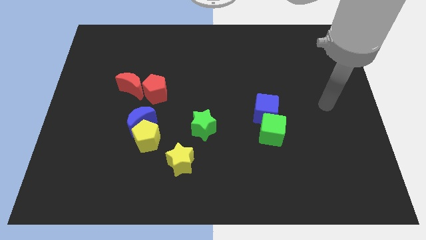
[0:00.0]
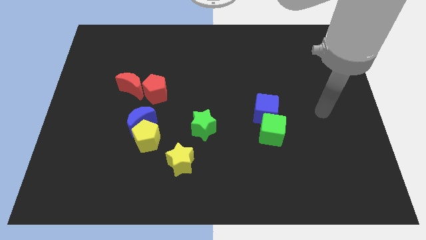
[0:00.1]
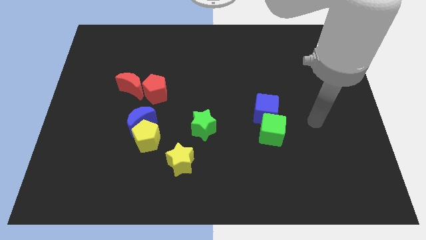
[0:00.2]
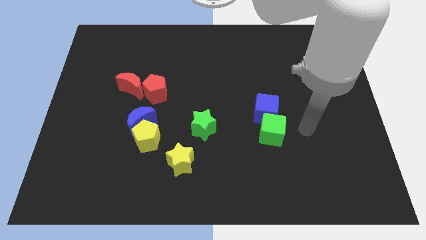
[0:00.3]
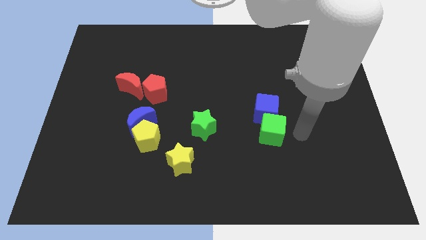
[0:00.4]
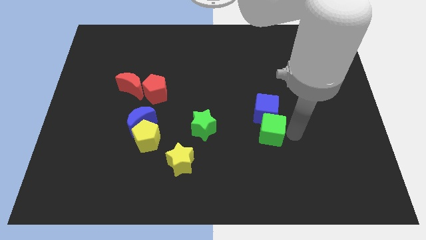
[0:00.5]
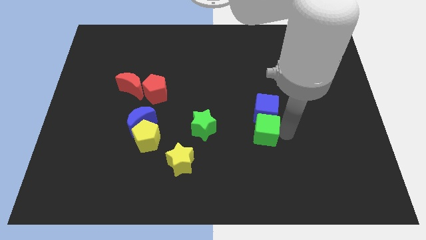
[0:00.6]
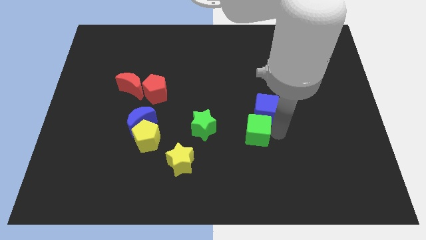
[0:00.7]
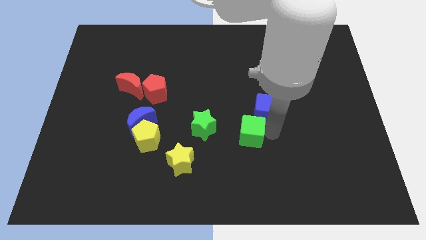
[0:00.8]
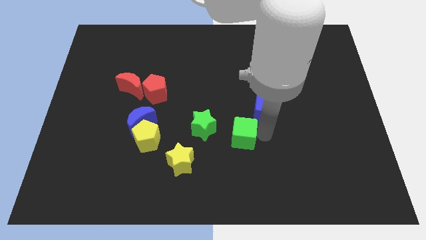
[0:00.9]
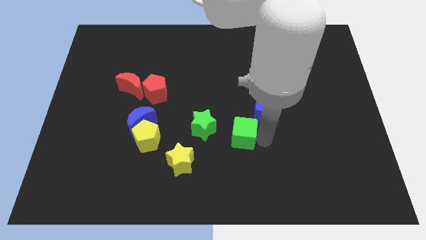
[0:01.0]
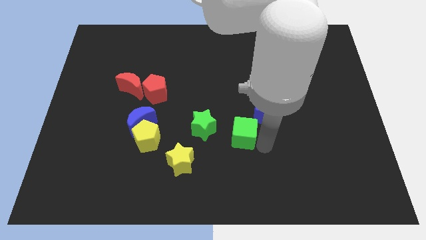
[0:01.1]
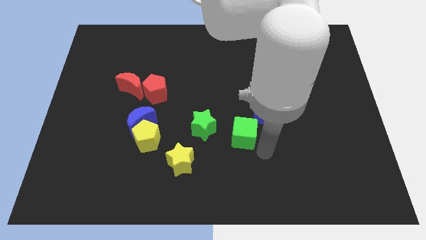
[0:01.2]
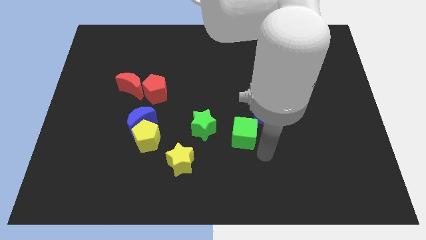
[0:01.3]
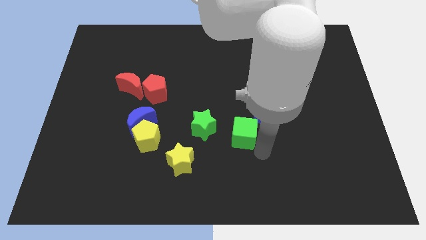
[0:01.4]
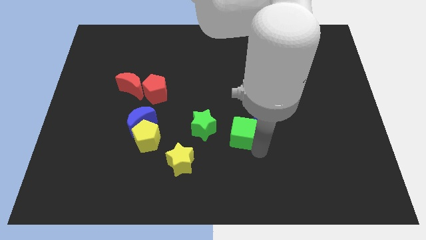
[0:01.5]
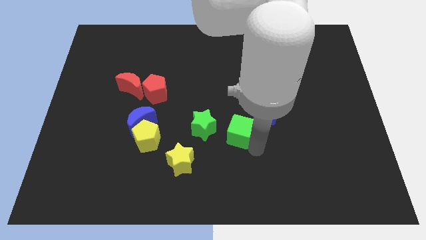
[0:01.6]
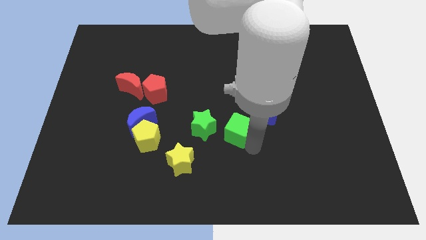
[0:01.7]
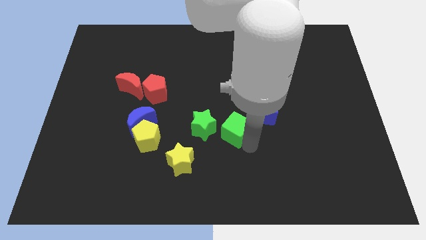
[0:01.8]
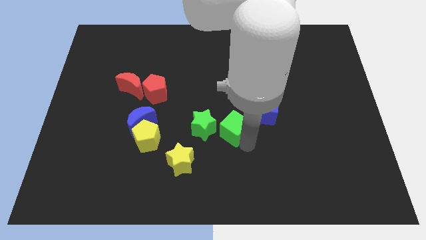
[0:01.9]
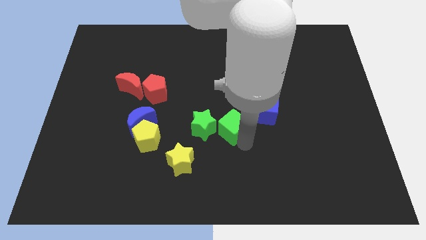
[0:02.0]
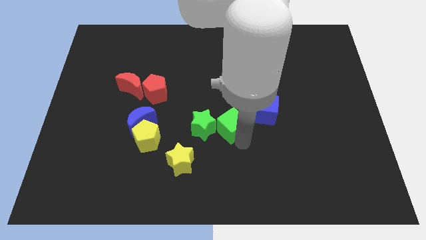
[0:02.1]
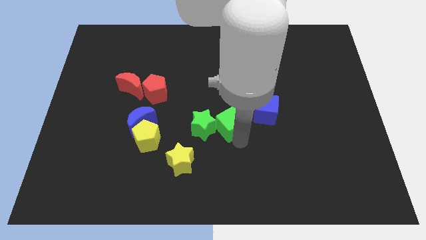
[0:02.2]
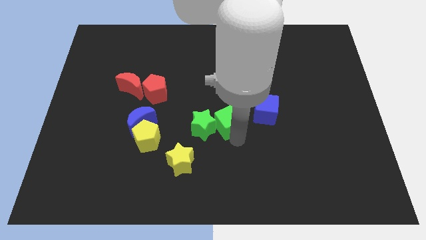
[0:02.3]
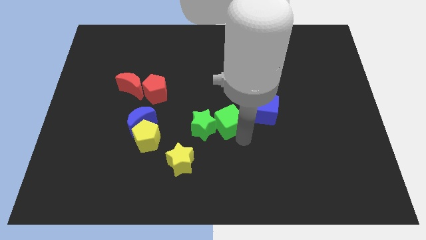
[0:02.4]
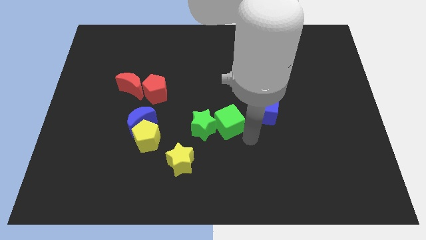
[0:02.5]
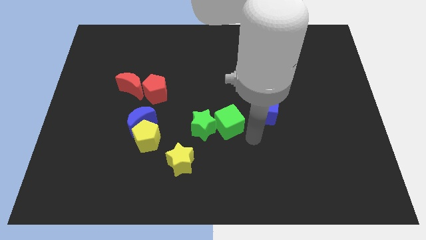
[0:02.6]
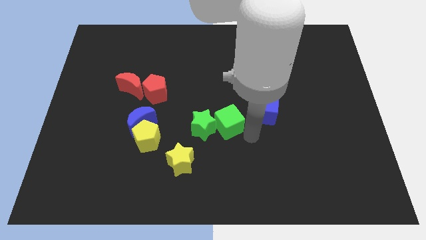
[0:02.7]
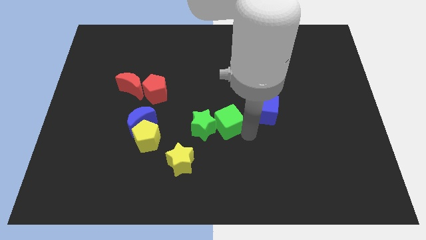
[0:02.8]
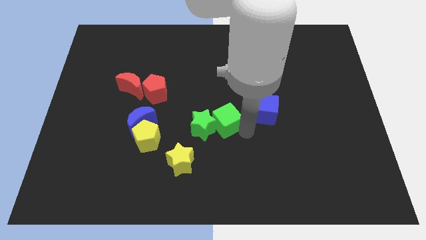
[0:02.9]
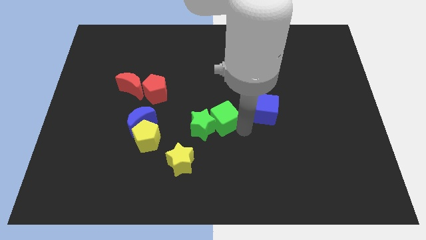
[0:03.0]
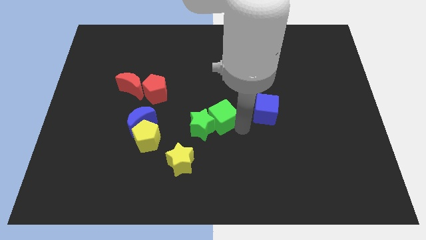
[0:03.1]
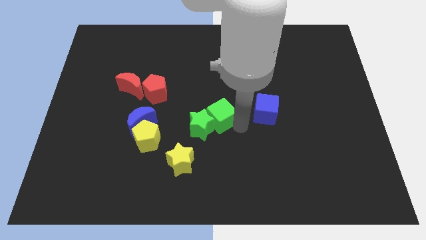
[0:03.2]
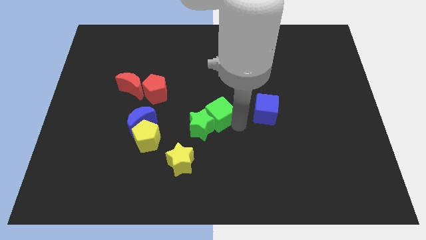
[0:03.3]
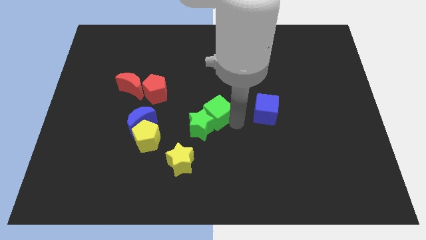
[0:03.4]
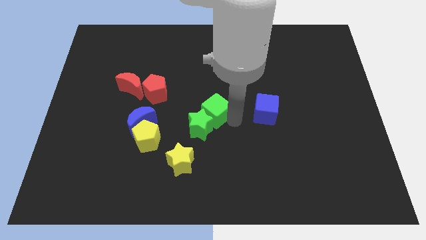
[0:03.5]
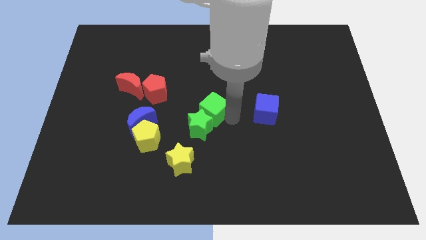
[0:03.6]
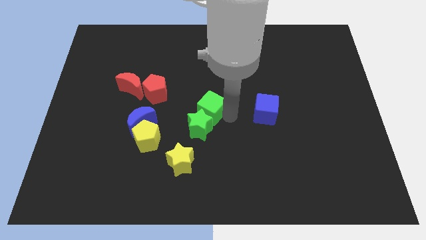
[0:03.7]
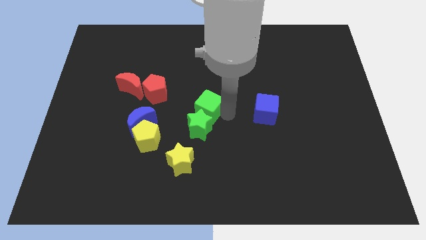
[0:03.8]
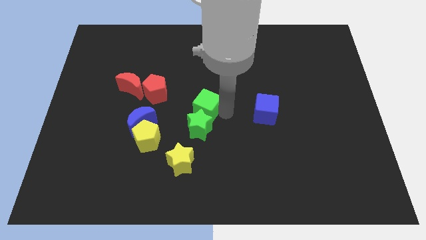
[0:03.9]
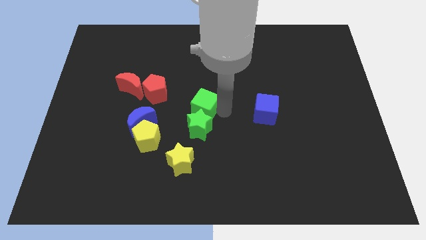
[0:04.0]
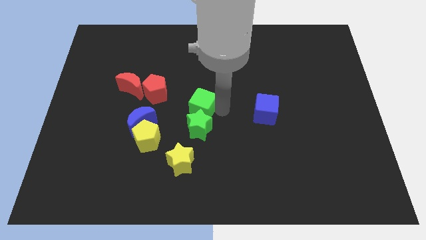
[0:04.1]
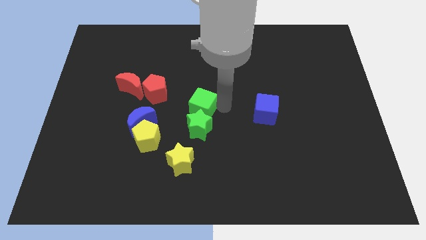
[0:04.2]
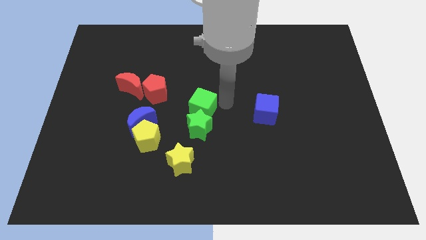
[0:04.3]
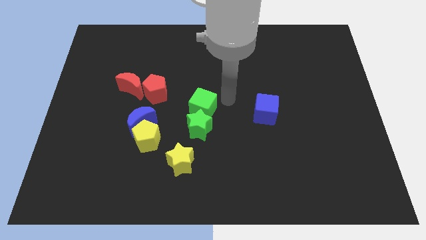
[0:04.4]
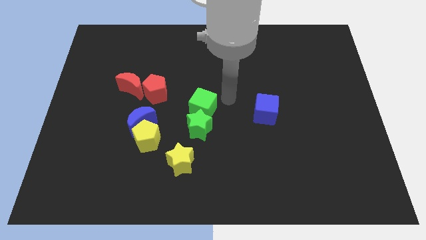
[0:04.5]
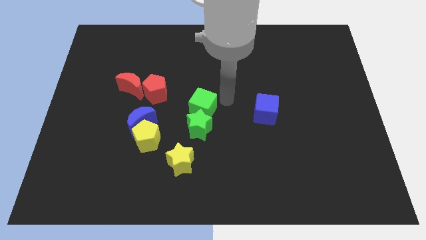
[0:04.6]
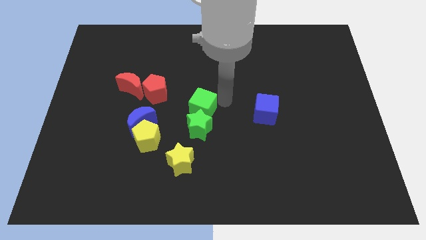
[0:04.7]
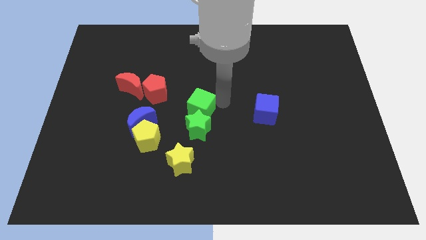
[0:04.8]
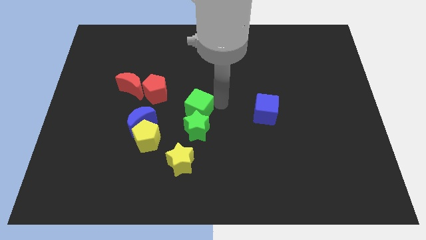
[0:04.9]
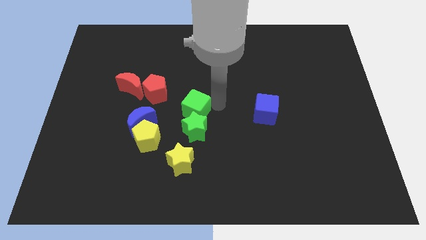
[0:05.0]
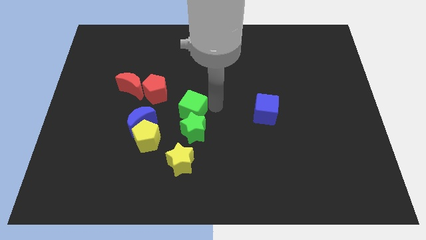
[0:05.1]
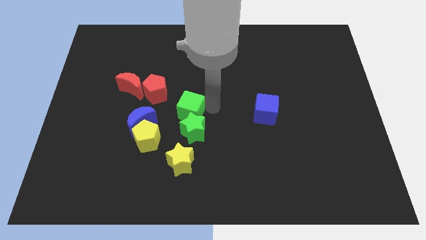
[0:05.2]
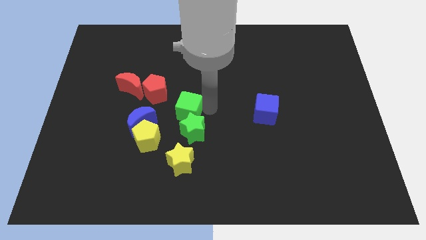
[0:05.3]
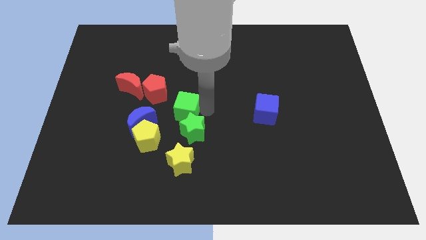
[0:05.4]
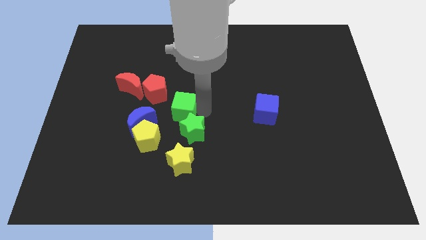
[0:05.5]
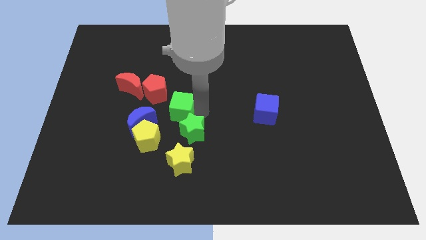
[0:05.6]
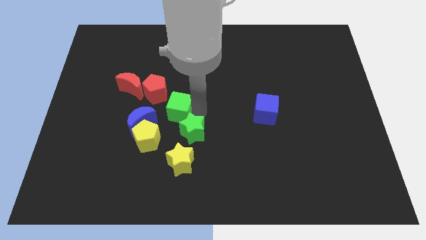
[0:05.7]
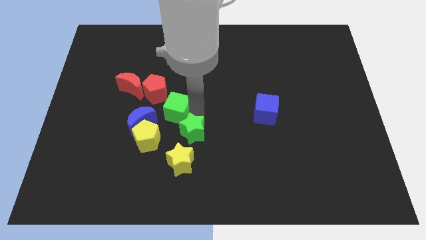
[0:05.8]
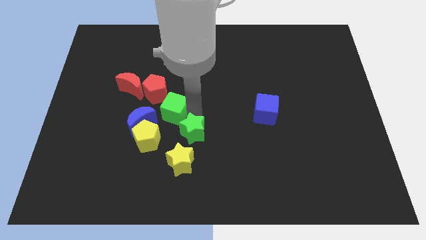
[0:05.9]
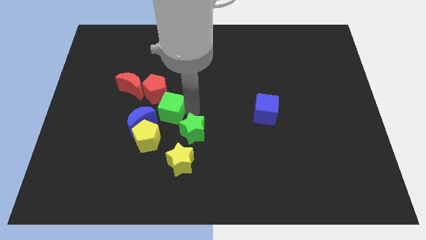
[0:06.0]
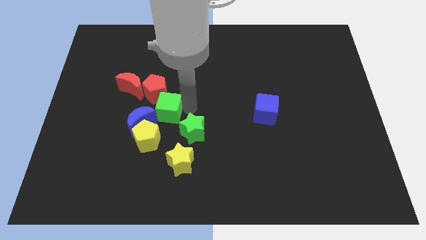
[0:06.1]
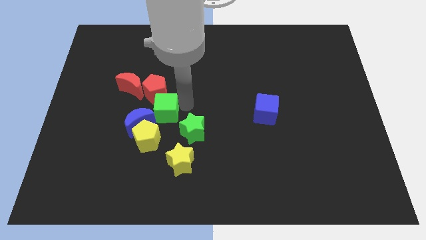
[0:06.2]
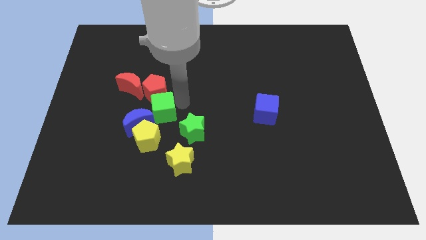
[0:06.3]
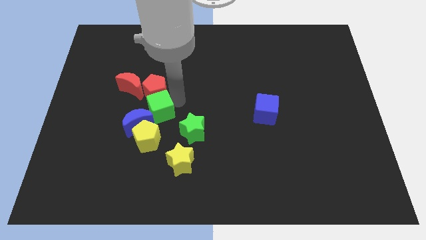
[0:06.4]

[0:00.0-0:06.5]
push the green cube next to the blue moon

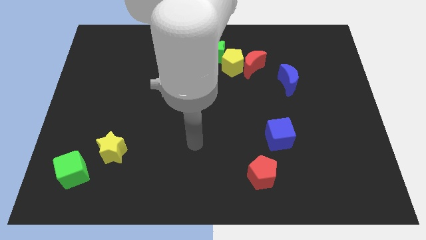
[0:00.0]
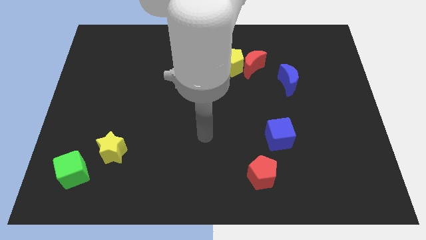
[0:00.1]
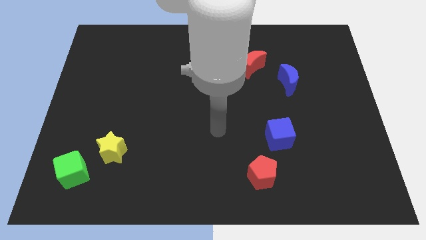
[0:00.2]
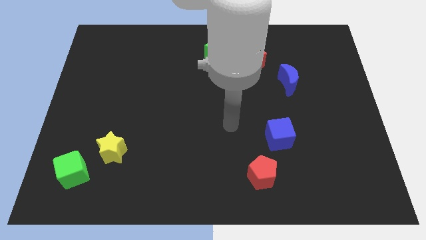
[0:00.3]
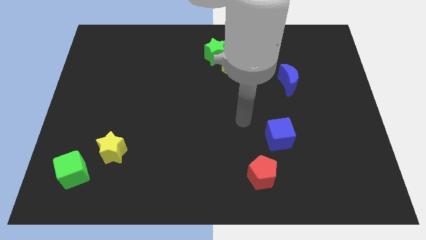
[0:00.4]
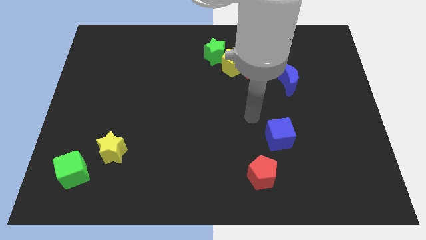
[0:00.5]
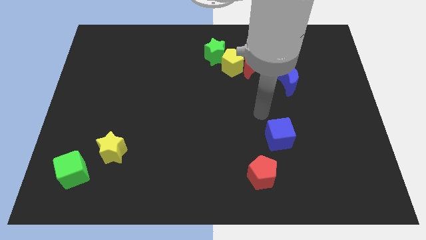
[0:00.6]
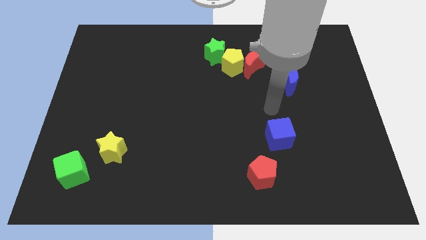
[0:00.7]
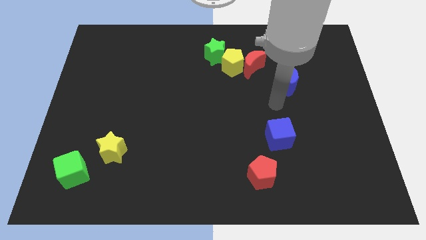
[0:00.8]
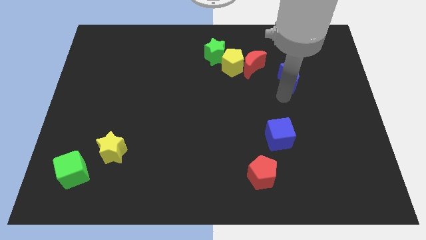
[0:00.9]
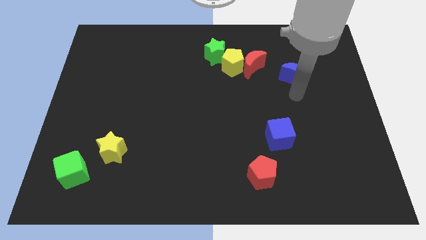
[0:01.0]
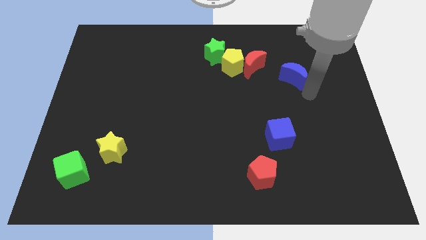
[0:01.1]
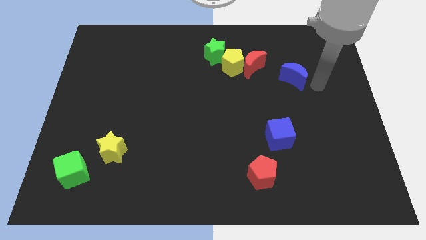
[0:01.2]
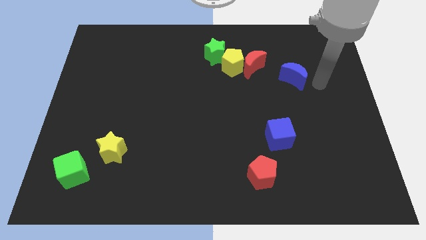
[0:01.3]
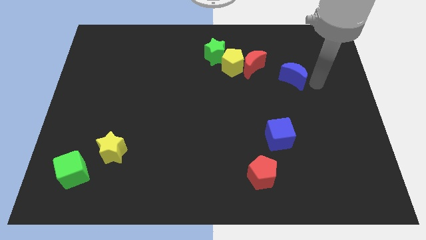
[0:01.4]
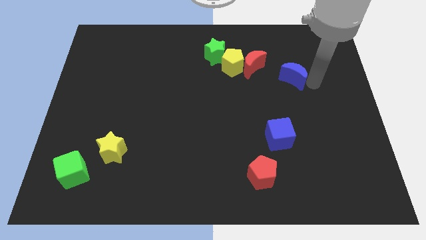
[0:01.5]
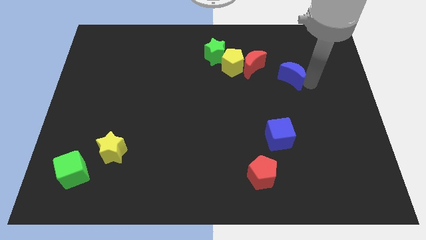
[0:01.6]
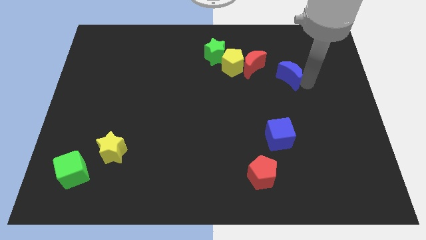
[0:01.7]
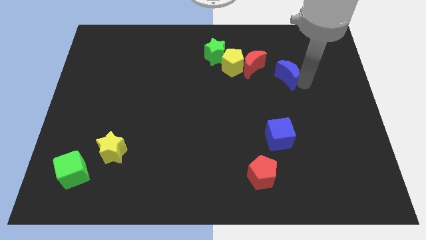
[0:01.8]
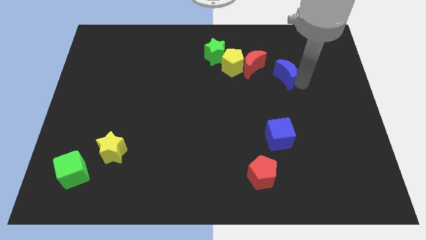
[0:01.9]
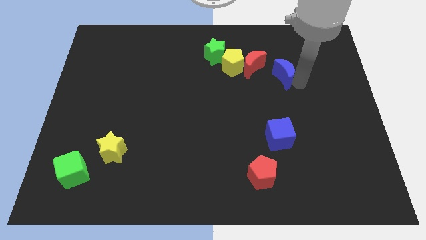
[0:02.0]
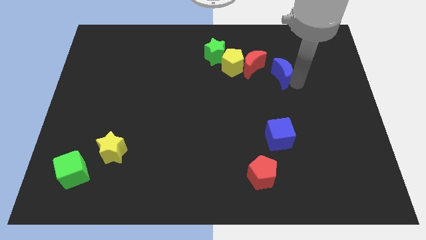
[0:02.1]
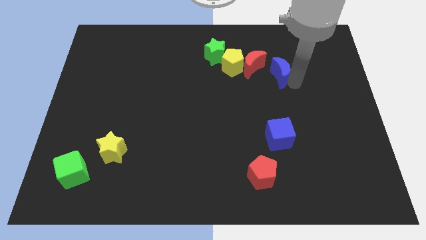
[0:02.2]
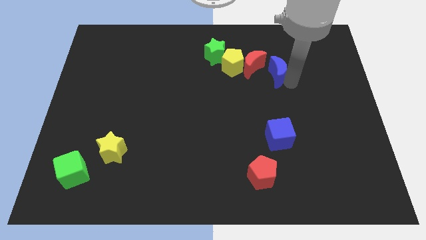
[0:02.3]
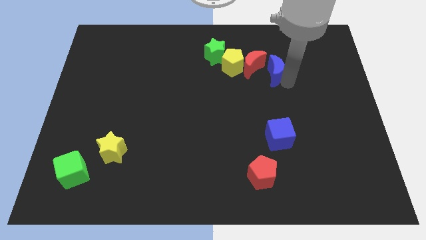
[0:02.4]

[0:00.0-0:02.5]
slide the blue moon close to the red moon
